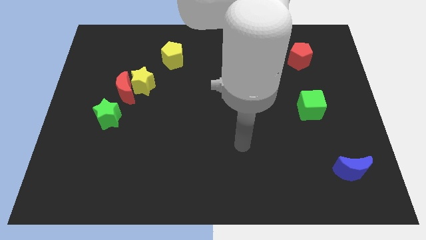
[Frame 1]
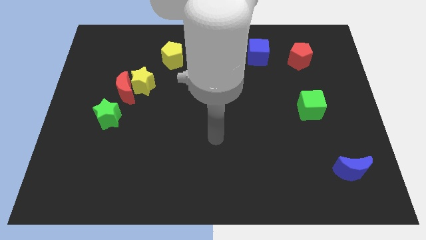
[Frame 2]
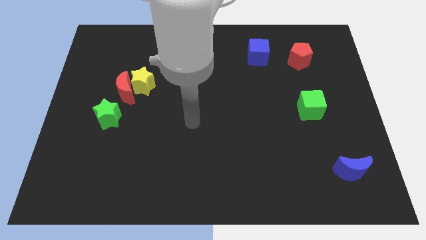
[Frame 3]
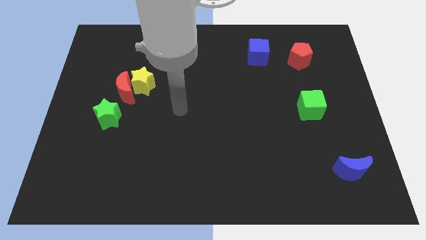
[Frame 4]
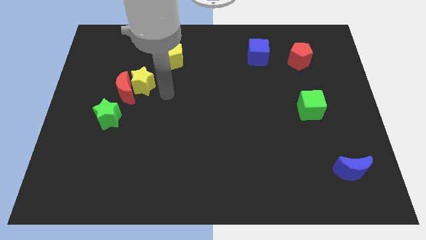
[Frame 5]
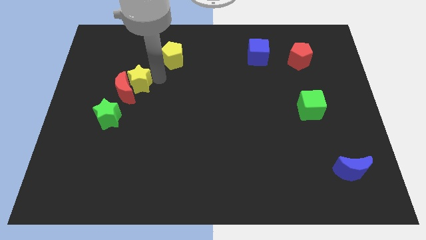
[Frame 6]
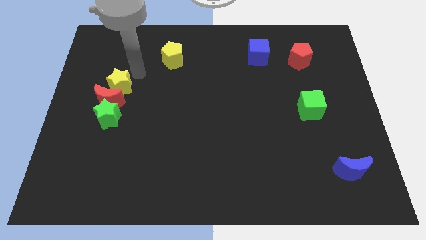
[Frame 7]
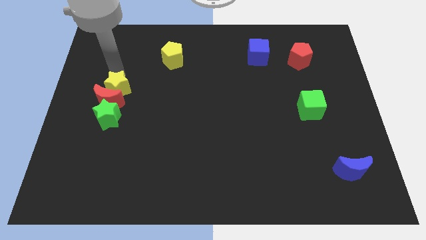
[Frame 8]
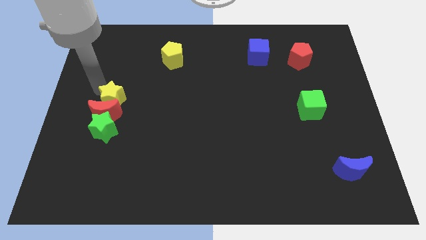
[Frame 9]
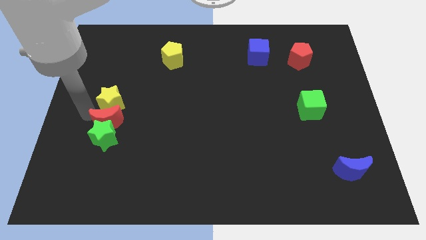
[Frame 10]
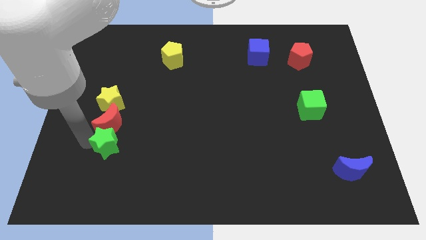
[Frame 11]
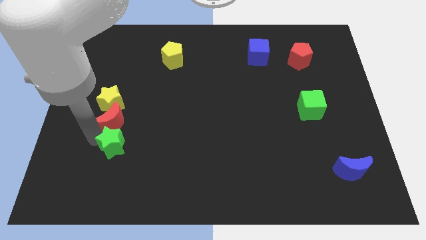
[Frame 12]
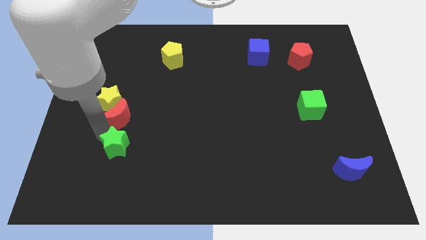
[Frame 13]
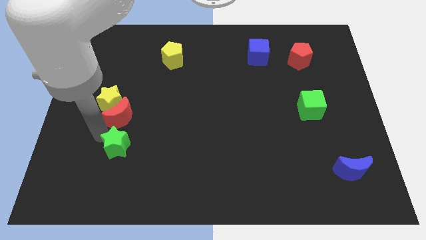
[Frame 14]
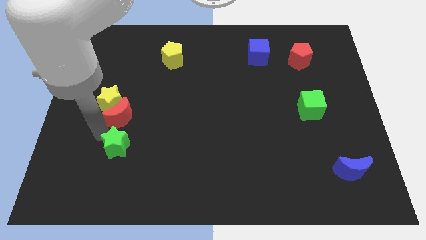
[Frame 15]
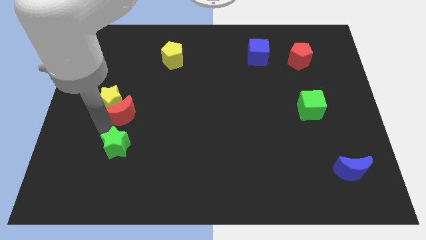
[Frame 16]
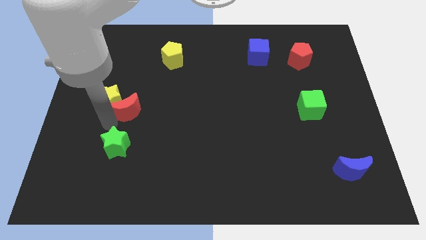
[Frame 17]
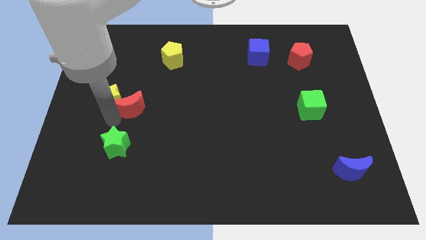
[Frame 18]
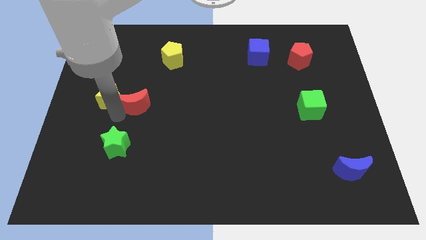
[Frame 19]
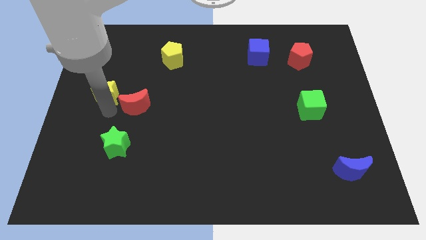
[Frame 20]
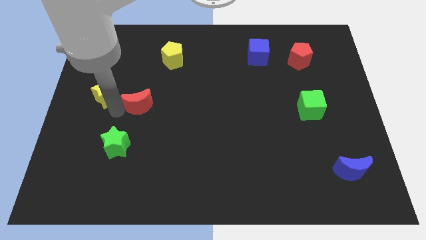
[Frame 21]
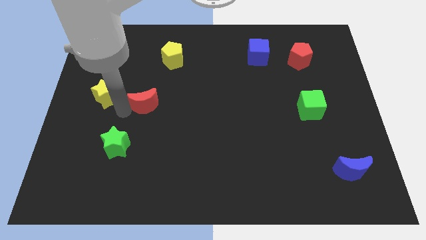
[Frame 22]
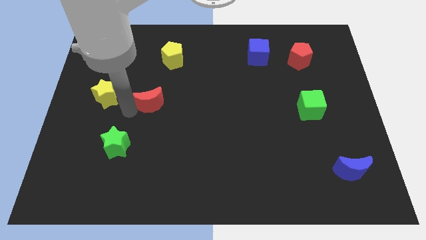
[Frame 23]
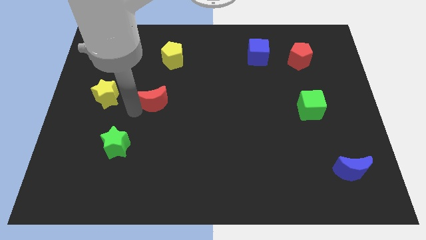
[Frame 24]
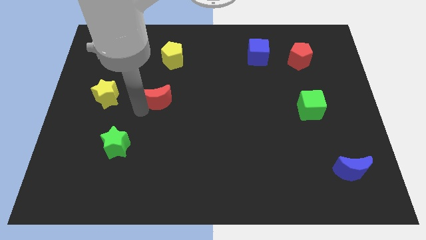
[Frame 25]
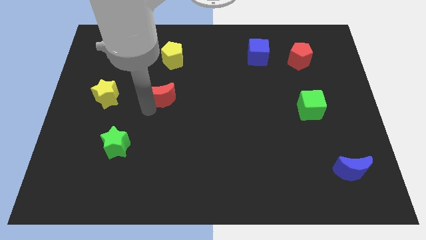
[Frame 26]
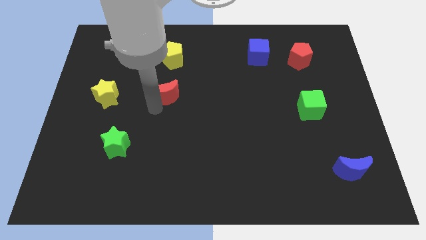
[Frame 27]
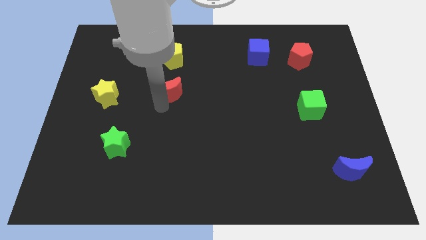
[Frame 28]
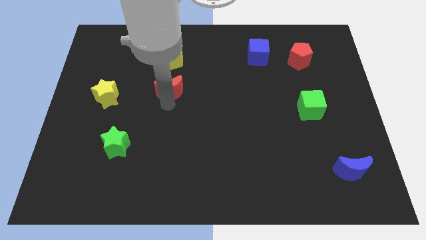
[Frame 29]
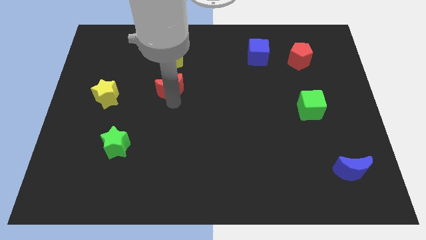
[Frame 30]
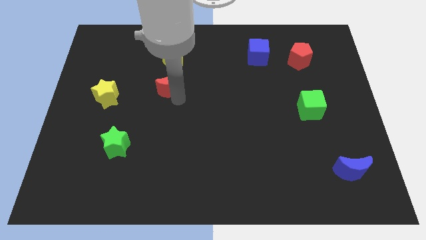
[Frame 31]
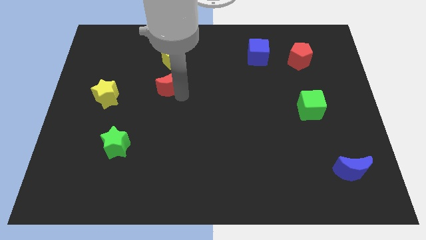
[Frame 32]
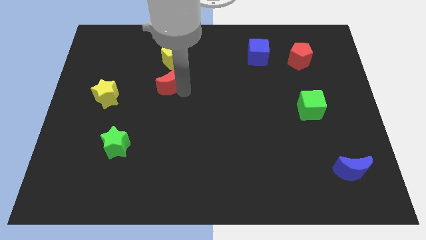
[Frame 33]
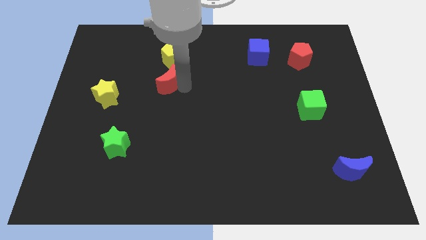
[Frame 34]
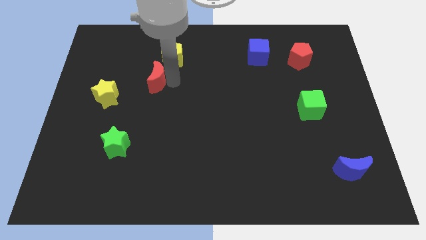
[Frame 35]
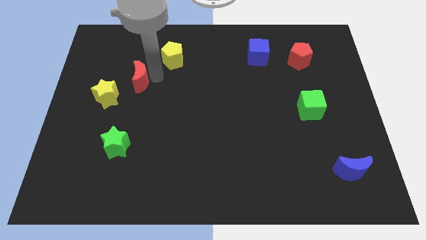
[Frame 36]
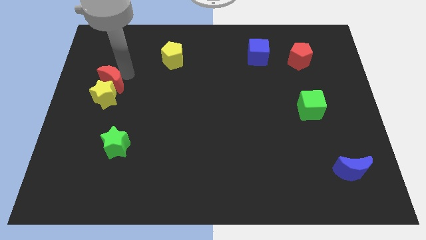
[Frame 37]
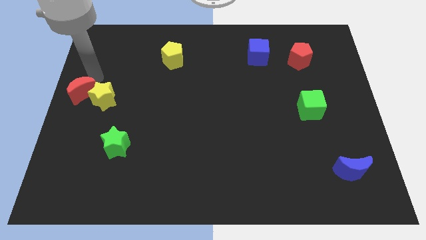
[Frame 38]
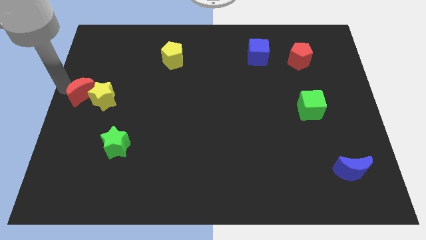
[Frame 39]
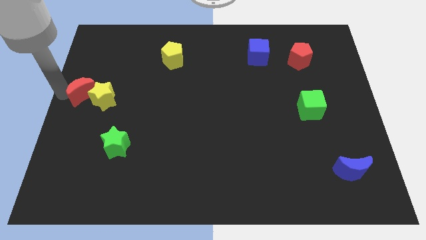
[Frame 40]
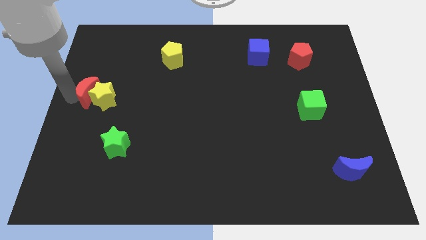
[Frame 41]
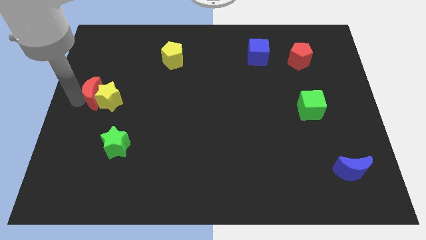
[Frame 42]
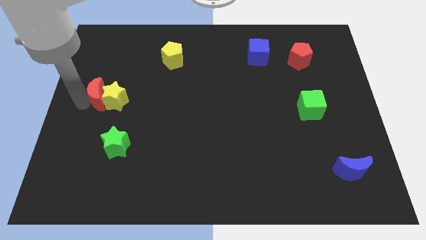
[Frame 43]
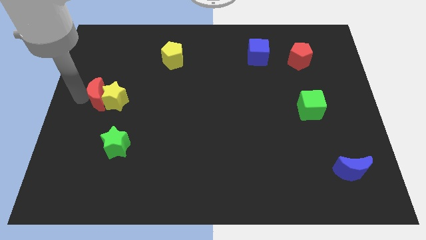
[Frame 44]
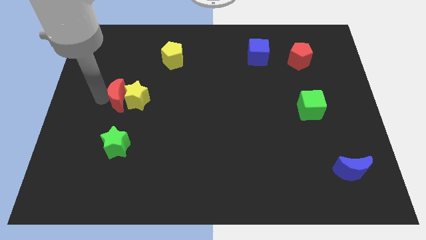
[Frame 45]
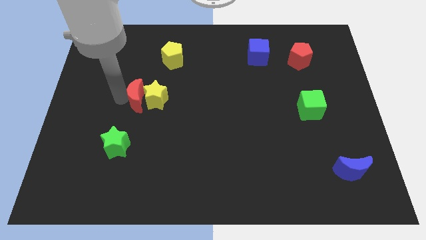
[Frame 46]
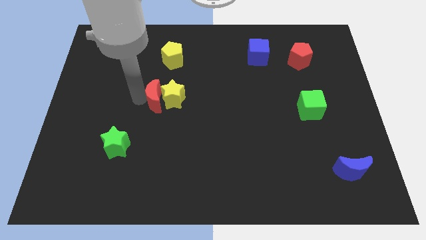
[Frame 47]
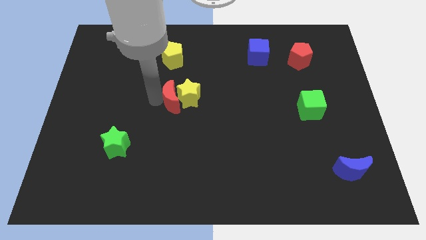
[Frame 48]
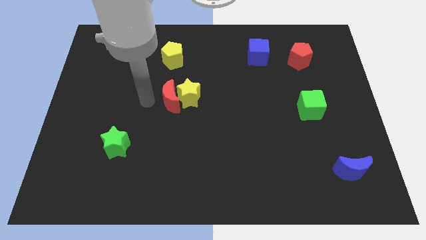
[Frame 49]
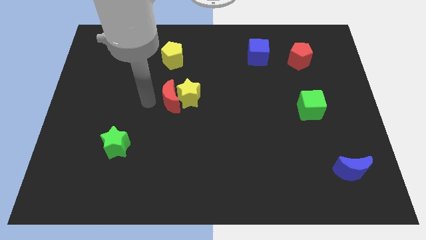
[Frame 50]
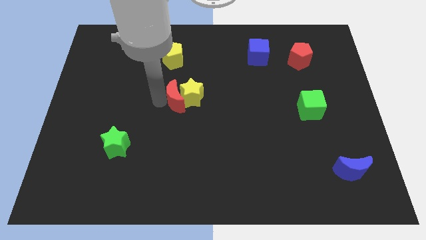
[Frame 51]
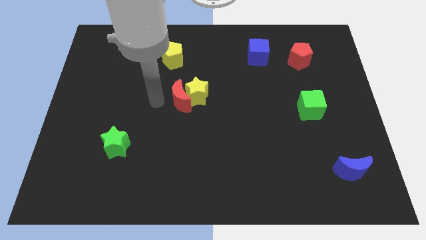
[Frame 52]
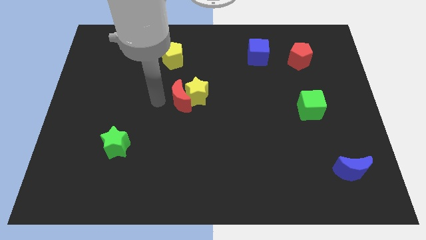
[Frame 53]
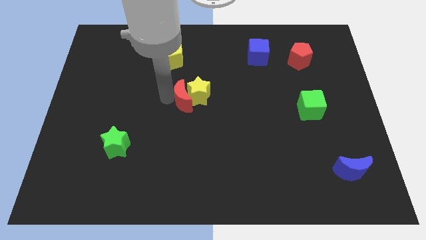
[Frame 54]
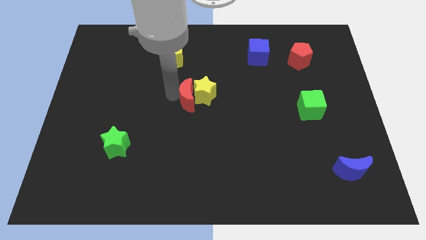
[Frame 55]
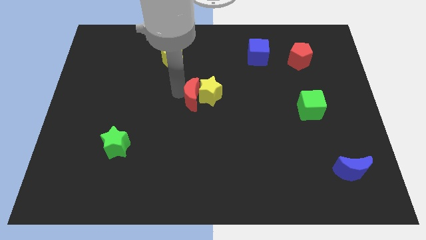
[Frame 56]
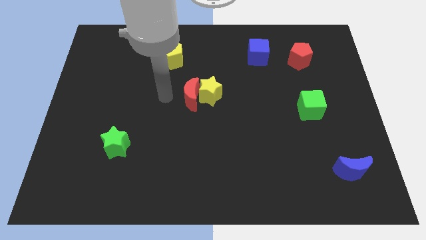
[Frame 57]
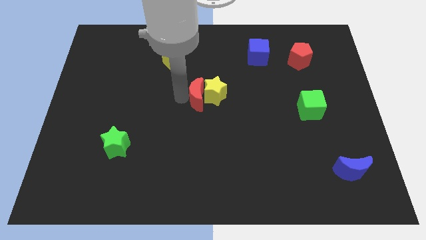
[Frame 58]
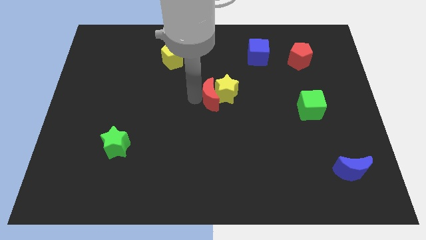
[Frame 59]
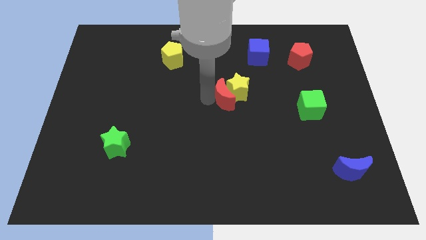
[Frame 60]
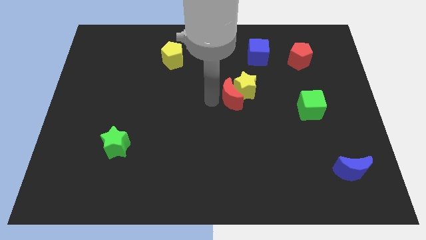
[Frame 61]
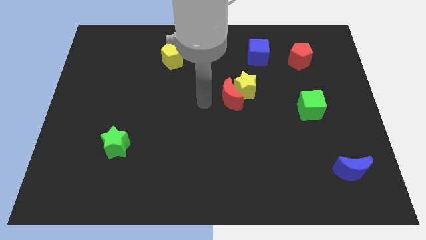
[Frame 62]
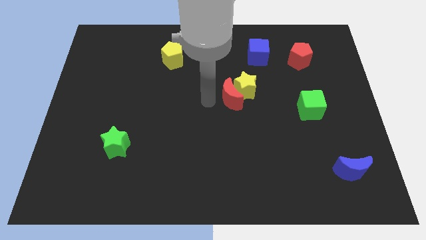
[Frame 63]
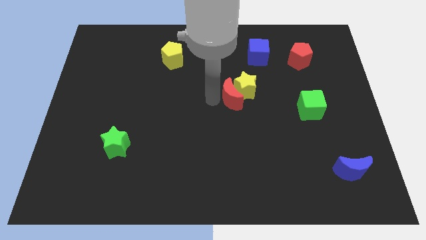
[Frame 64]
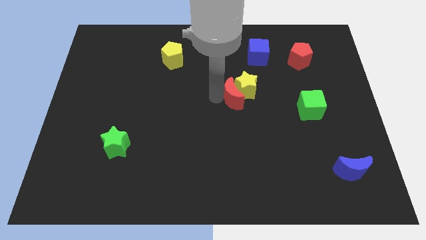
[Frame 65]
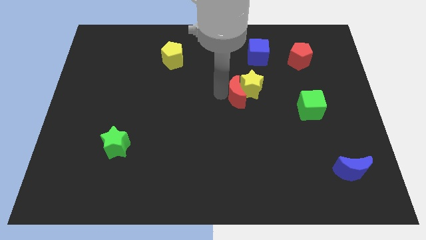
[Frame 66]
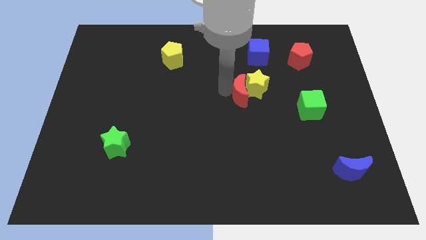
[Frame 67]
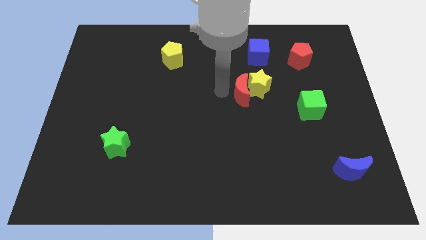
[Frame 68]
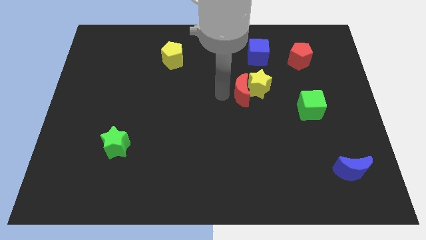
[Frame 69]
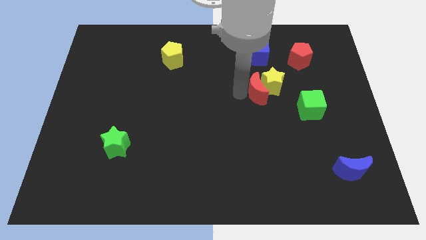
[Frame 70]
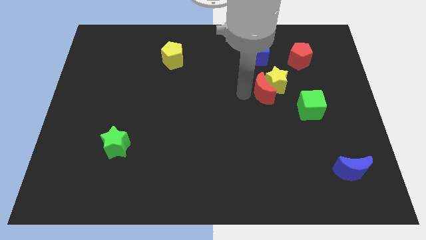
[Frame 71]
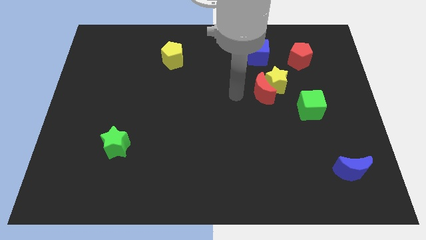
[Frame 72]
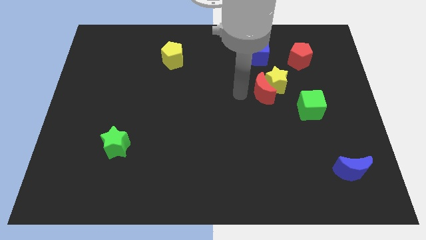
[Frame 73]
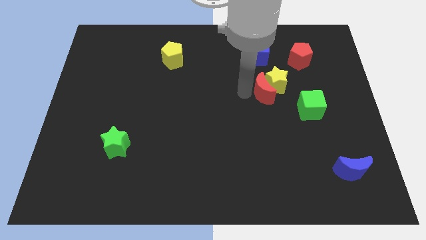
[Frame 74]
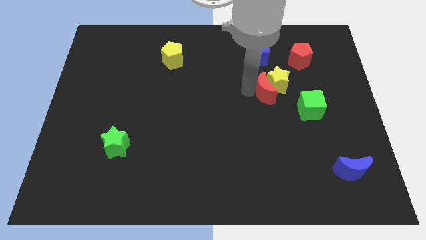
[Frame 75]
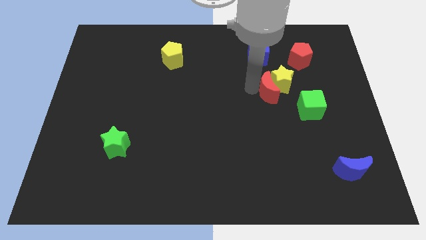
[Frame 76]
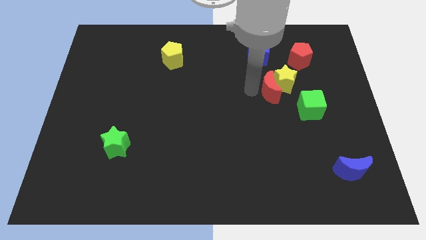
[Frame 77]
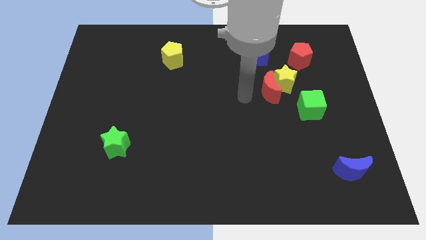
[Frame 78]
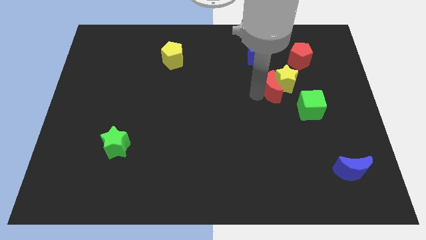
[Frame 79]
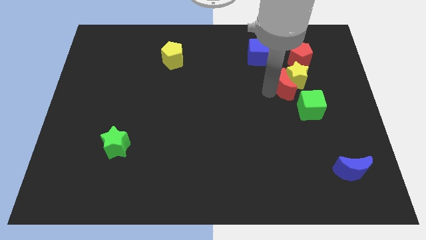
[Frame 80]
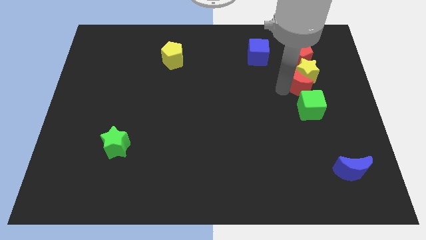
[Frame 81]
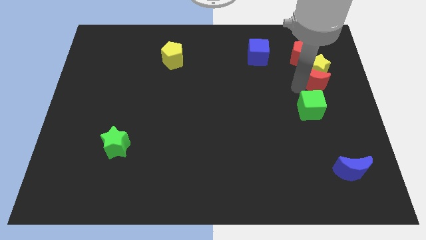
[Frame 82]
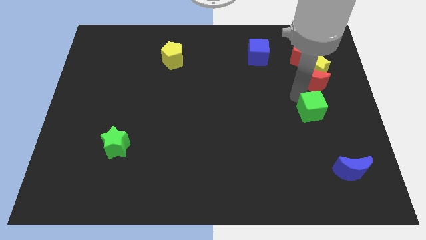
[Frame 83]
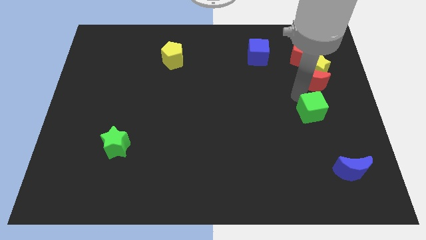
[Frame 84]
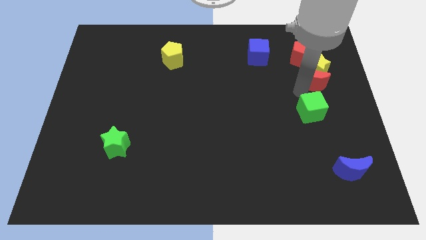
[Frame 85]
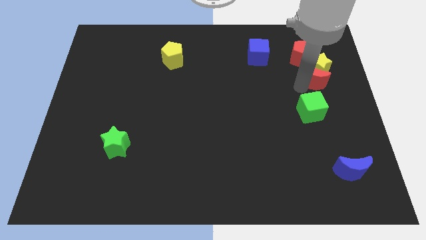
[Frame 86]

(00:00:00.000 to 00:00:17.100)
put the red moon to the bottom right of the red pentagon
